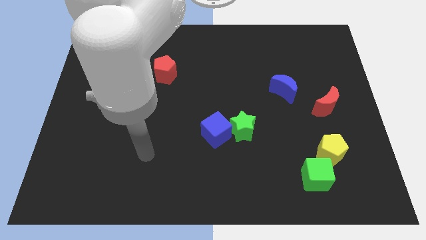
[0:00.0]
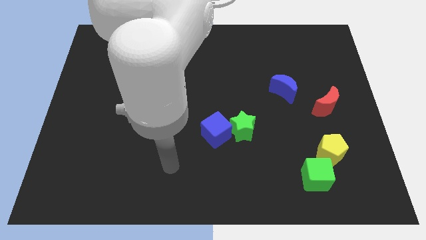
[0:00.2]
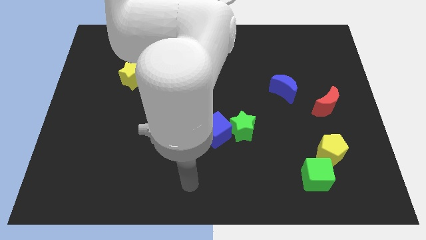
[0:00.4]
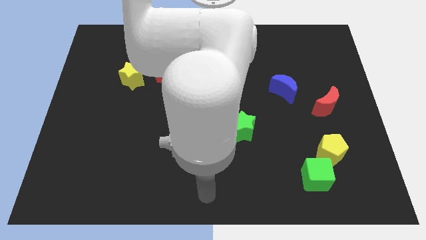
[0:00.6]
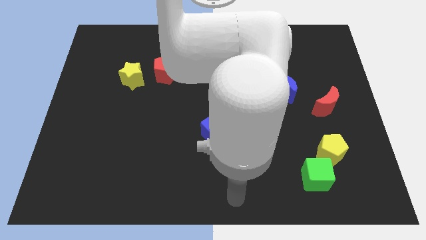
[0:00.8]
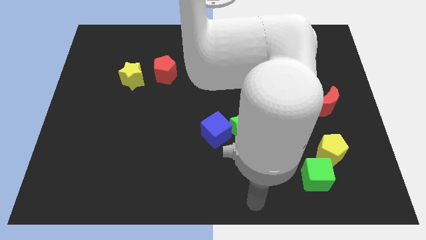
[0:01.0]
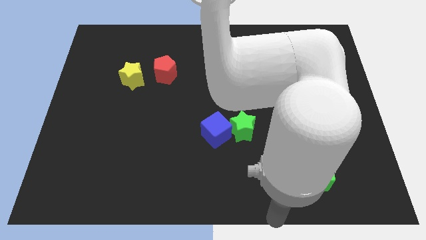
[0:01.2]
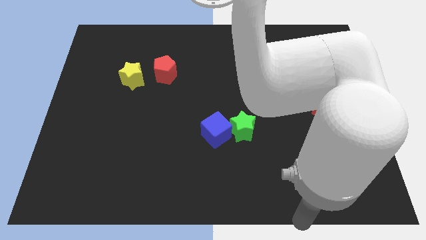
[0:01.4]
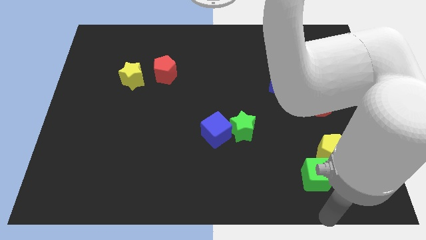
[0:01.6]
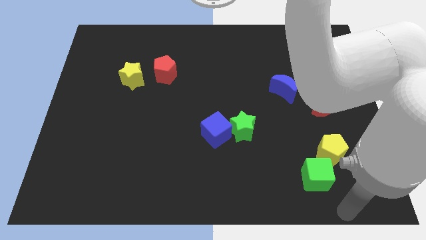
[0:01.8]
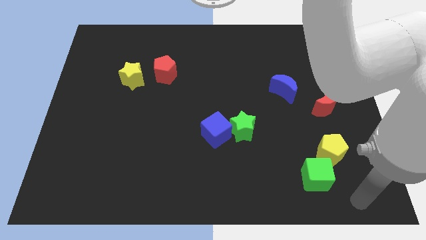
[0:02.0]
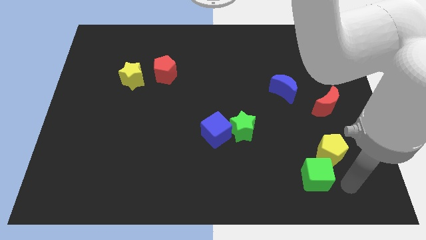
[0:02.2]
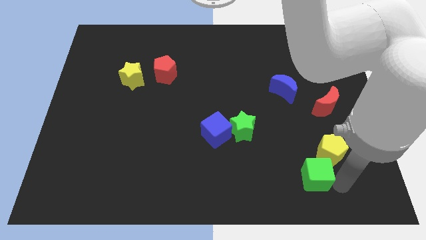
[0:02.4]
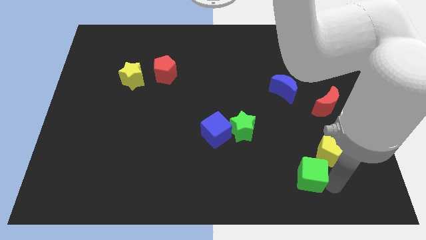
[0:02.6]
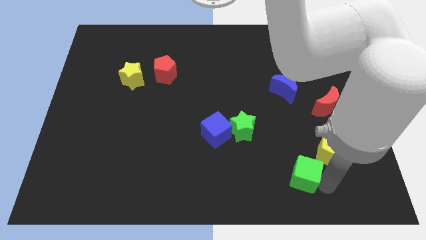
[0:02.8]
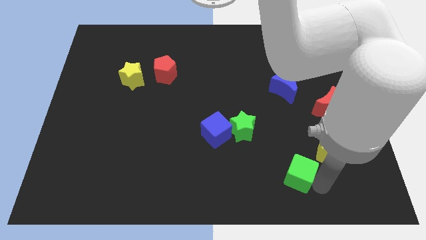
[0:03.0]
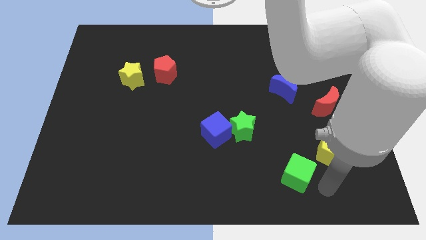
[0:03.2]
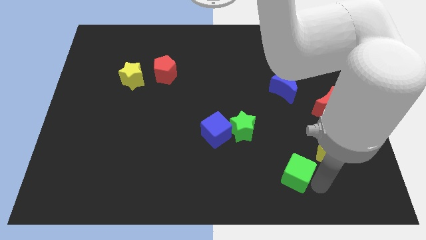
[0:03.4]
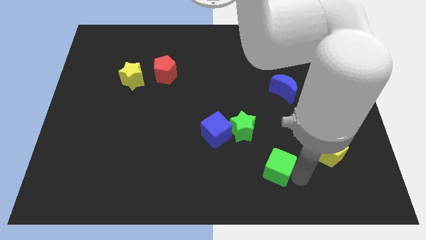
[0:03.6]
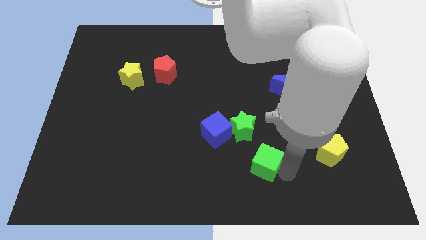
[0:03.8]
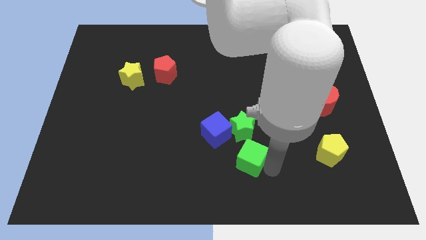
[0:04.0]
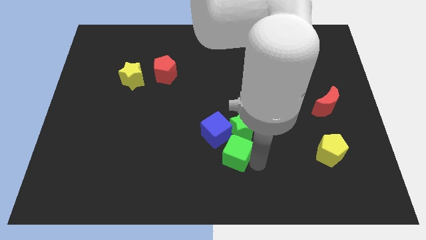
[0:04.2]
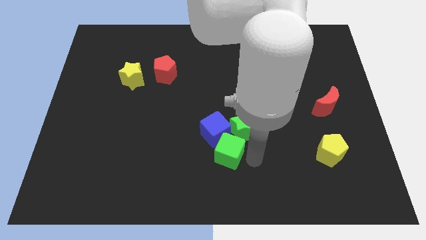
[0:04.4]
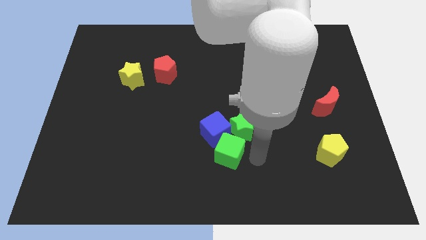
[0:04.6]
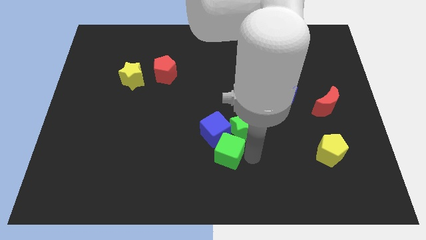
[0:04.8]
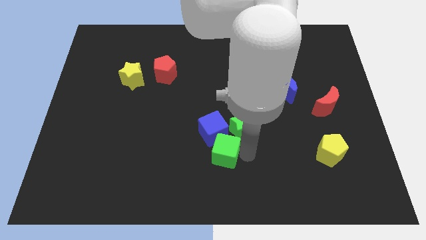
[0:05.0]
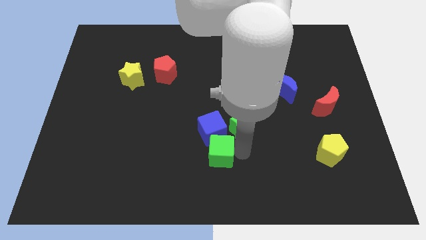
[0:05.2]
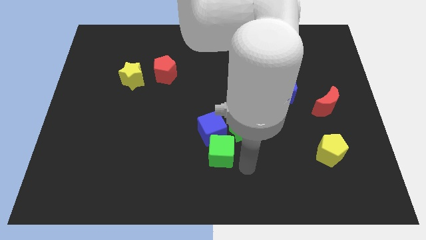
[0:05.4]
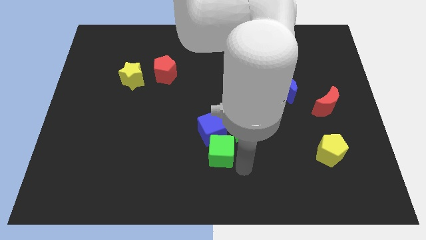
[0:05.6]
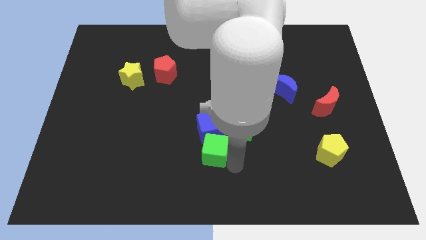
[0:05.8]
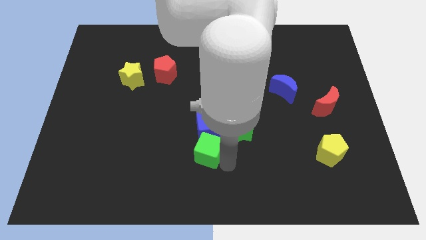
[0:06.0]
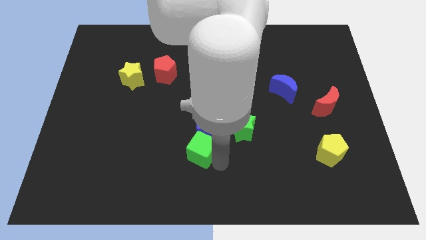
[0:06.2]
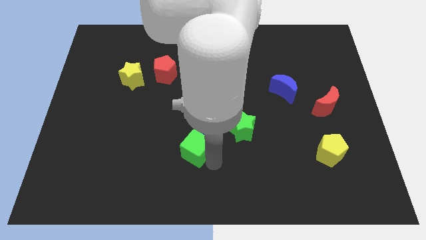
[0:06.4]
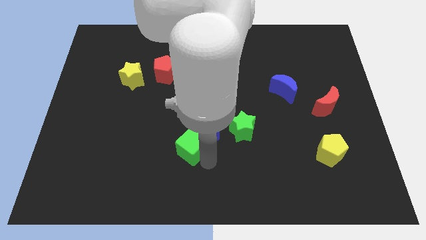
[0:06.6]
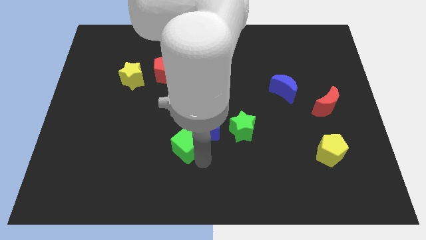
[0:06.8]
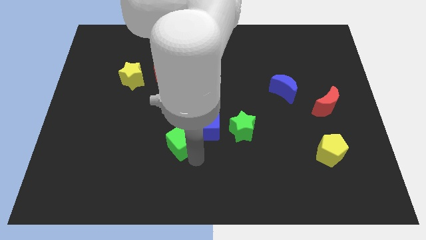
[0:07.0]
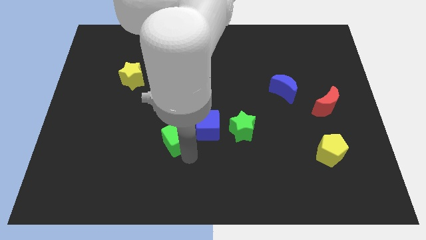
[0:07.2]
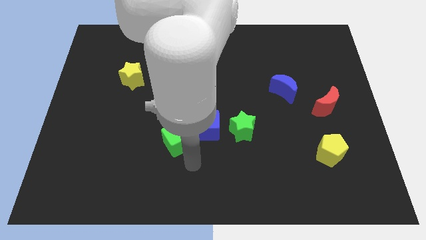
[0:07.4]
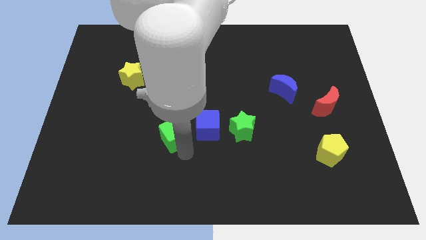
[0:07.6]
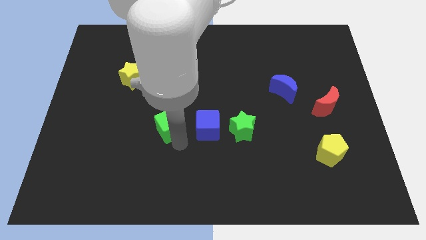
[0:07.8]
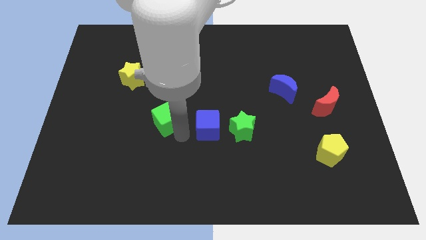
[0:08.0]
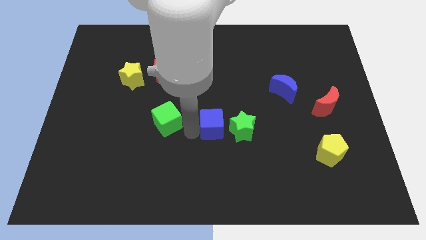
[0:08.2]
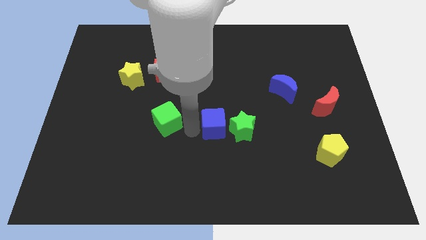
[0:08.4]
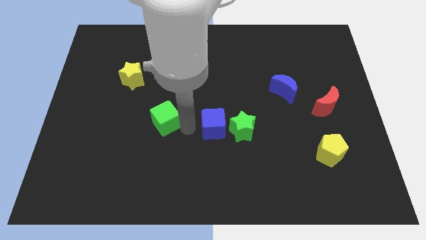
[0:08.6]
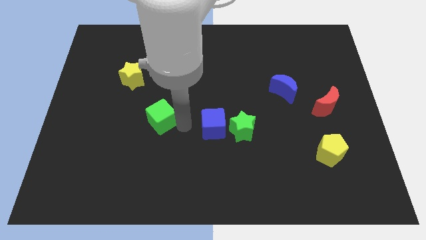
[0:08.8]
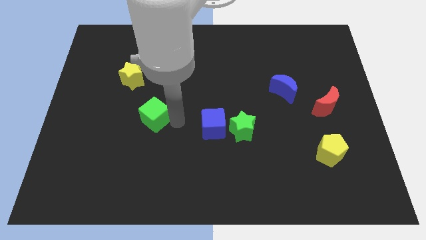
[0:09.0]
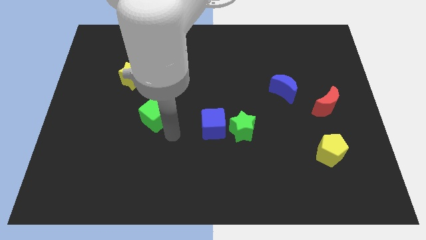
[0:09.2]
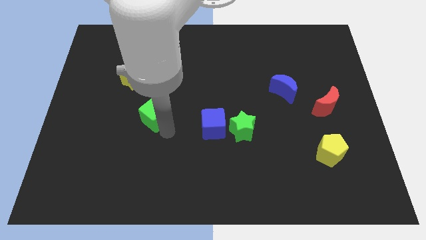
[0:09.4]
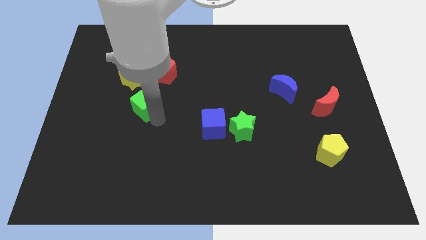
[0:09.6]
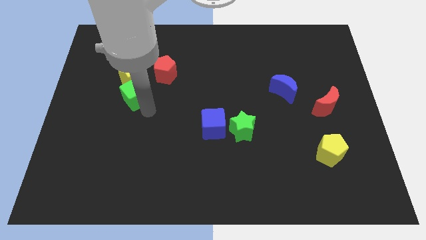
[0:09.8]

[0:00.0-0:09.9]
move the green cube close to the yellow star

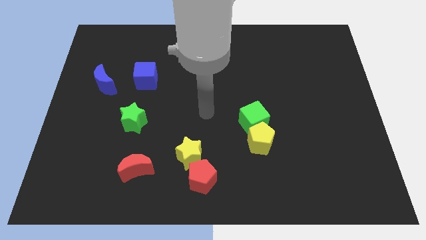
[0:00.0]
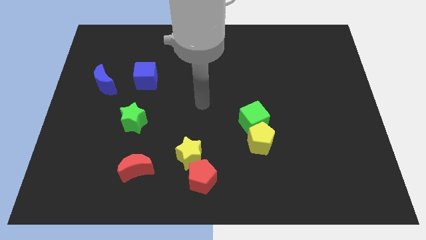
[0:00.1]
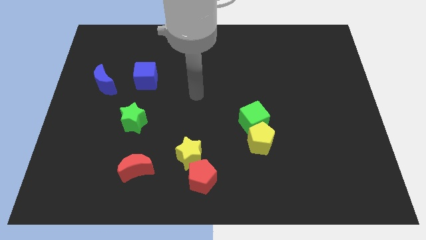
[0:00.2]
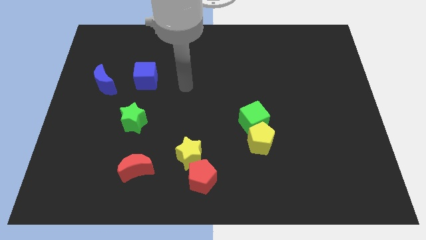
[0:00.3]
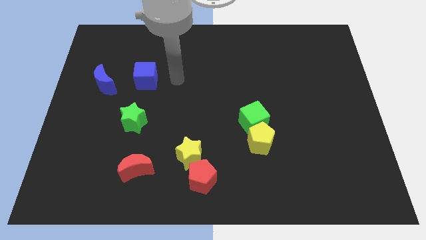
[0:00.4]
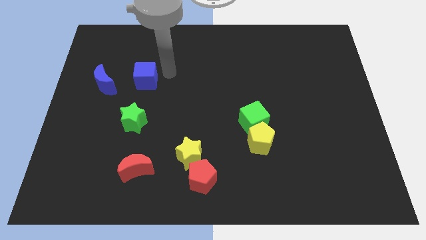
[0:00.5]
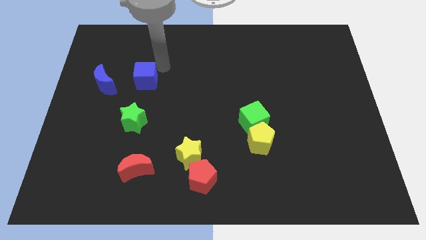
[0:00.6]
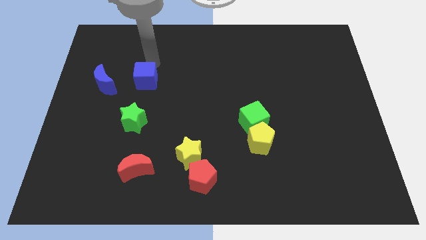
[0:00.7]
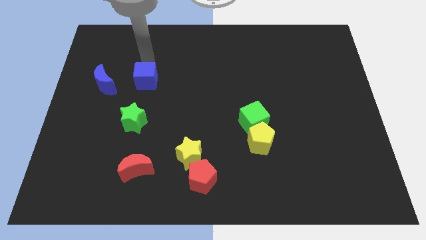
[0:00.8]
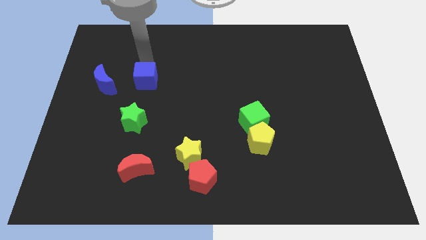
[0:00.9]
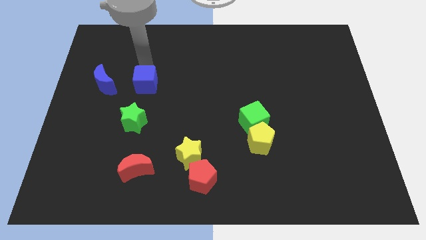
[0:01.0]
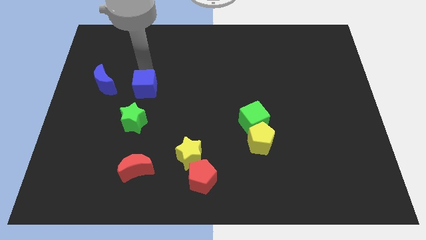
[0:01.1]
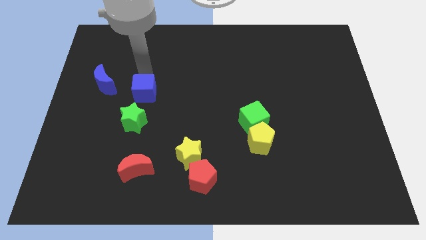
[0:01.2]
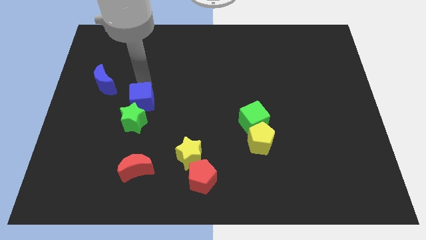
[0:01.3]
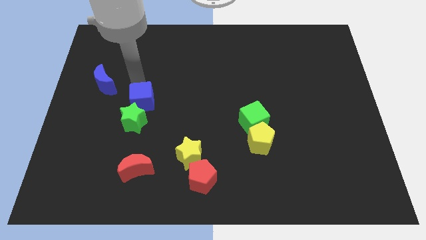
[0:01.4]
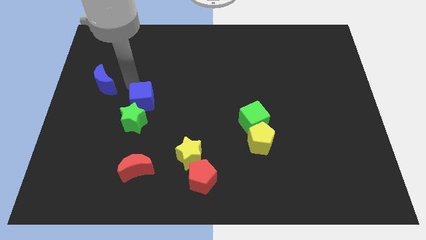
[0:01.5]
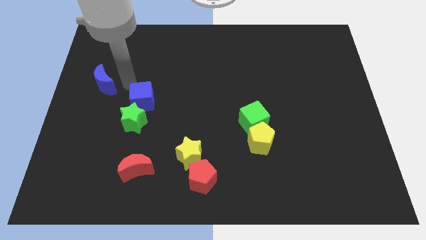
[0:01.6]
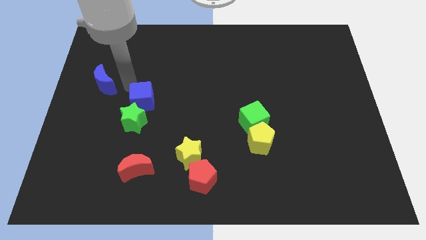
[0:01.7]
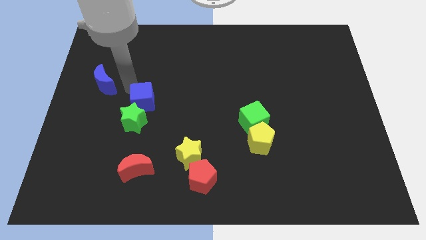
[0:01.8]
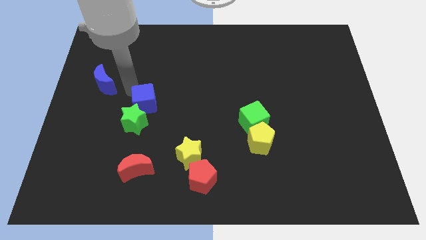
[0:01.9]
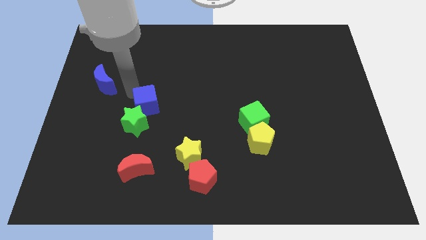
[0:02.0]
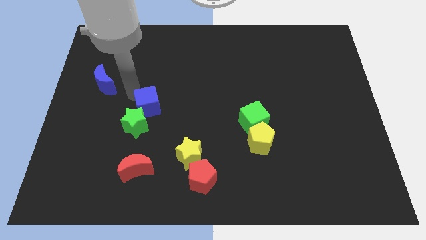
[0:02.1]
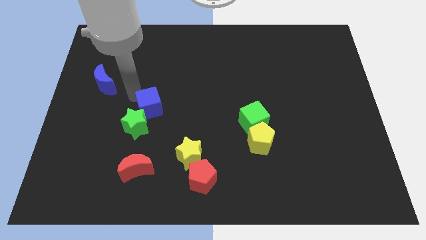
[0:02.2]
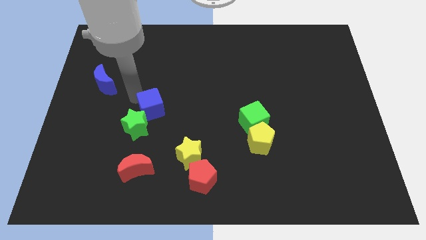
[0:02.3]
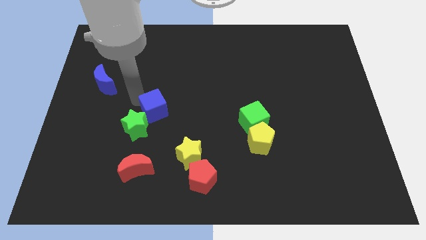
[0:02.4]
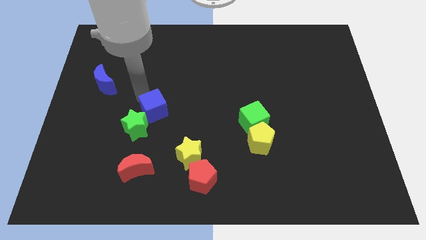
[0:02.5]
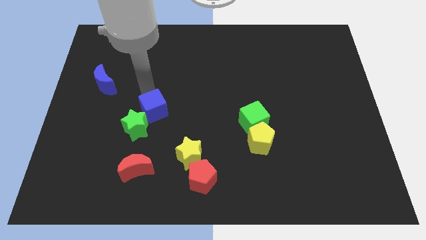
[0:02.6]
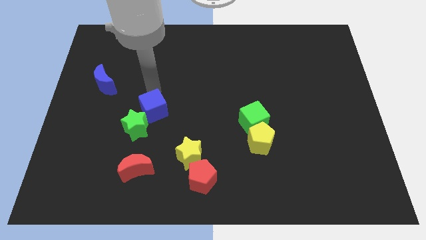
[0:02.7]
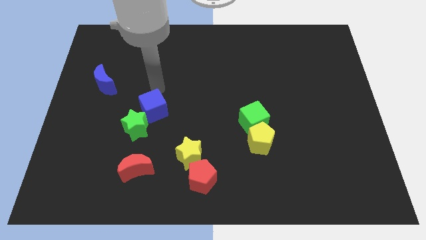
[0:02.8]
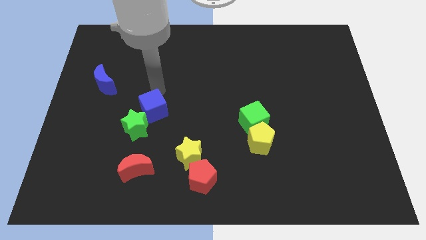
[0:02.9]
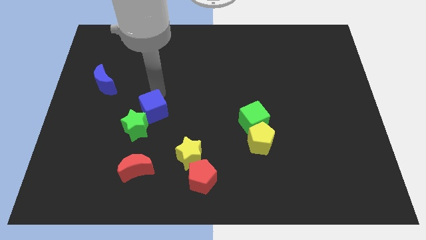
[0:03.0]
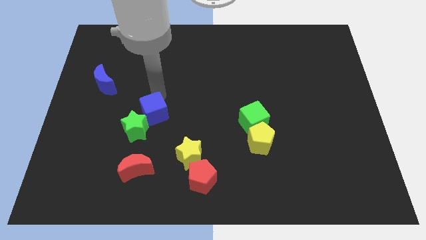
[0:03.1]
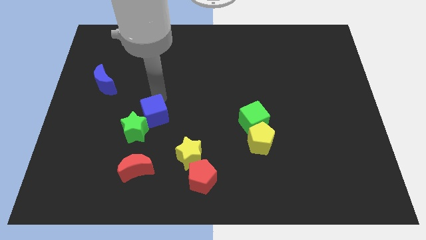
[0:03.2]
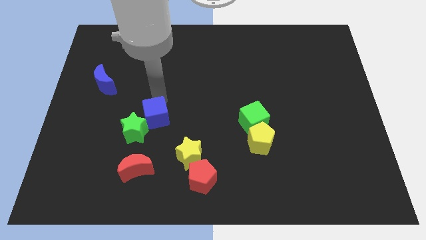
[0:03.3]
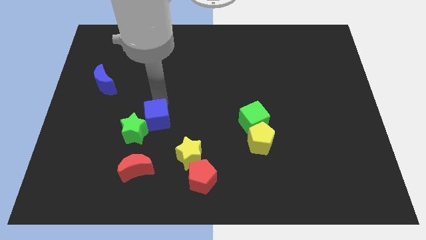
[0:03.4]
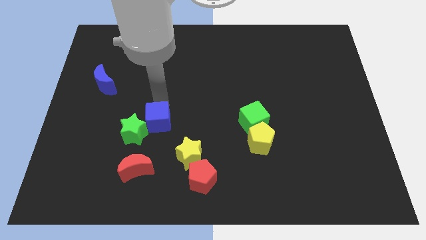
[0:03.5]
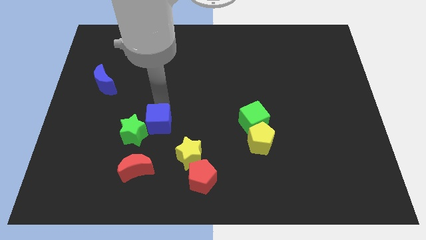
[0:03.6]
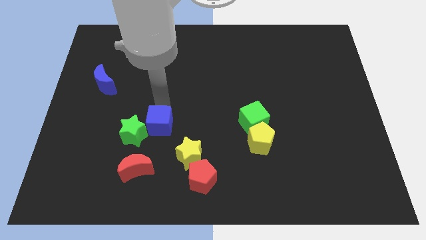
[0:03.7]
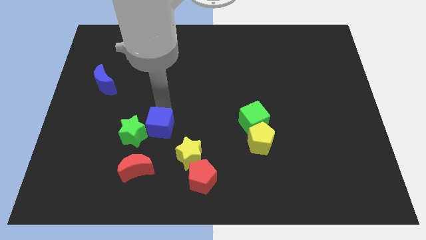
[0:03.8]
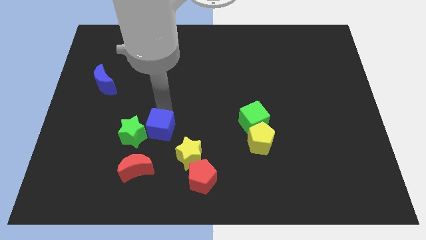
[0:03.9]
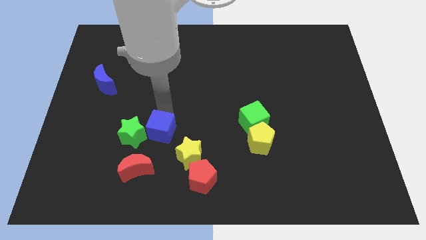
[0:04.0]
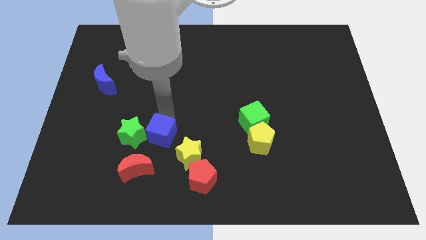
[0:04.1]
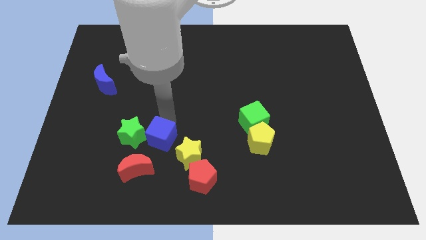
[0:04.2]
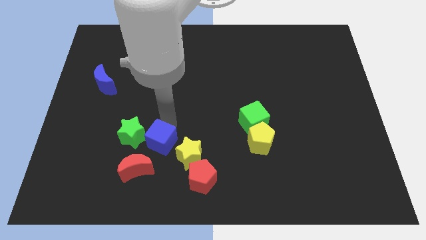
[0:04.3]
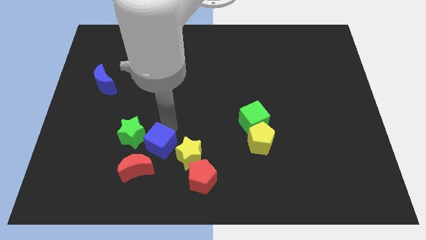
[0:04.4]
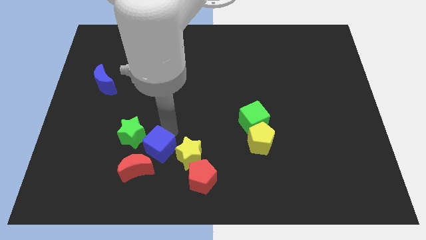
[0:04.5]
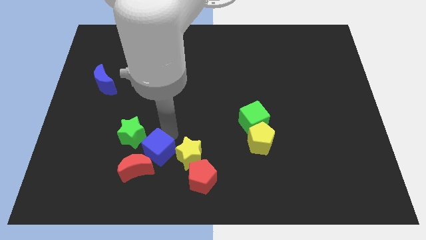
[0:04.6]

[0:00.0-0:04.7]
put the blue cube next to the red moon
